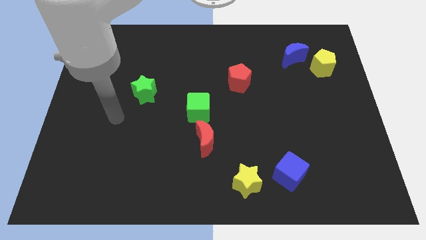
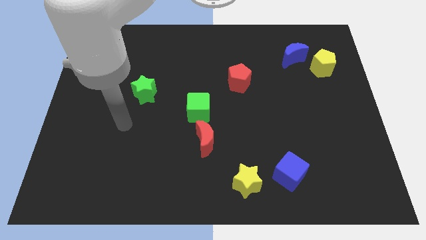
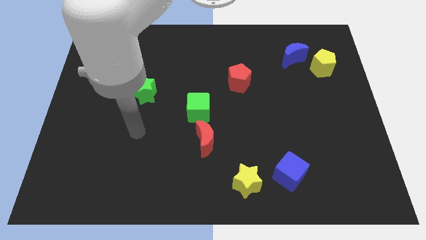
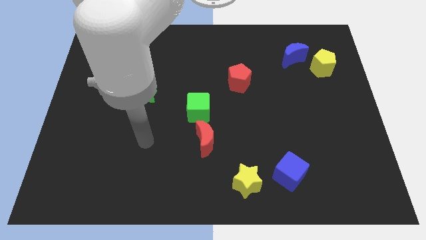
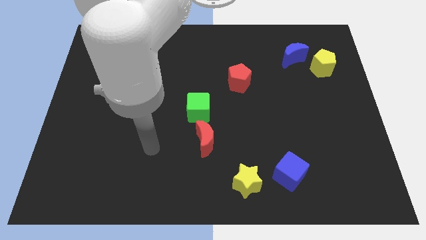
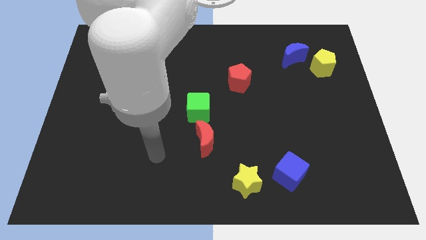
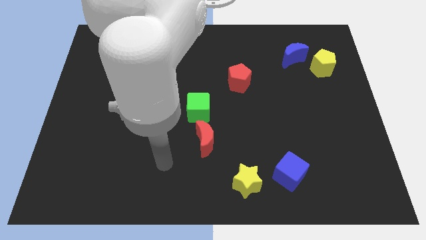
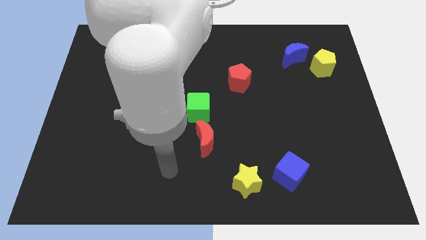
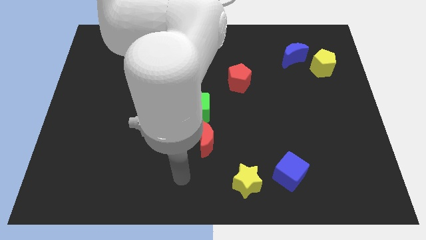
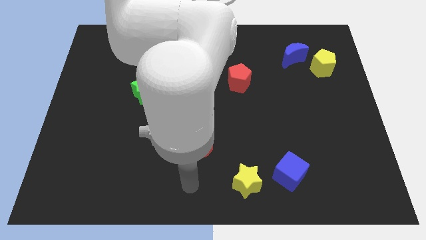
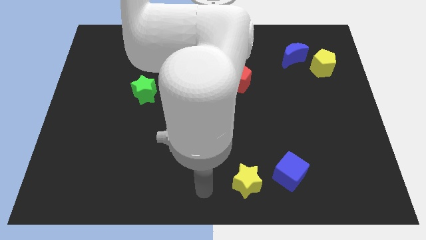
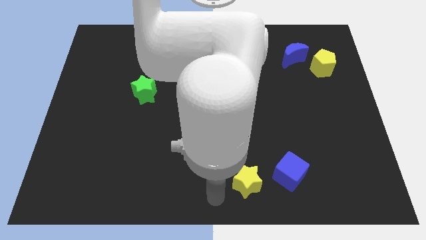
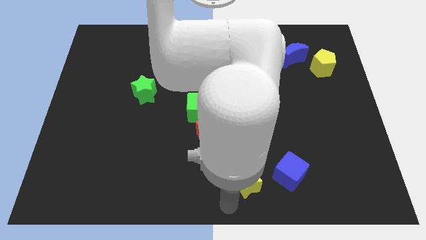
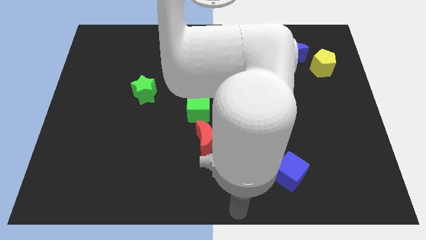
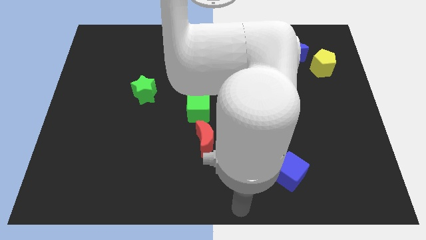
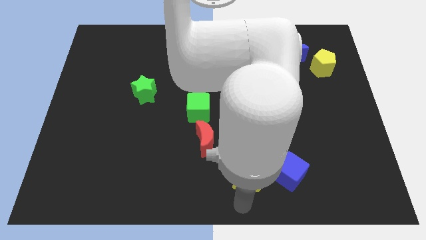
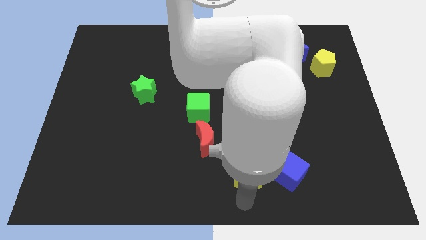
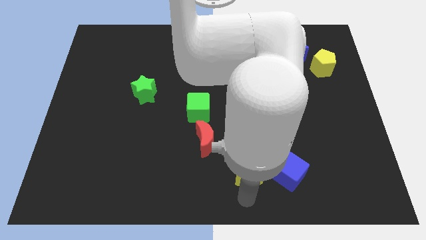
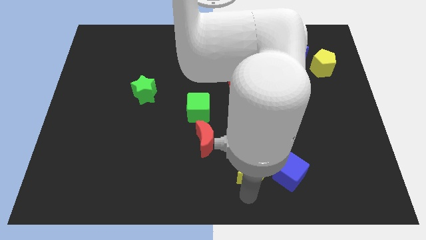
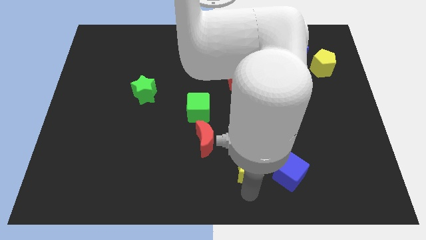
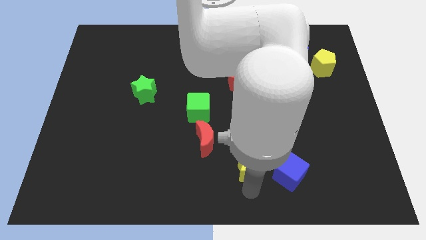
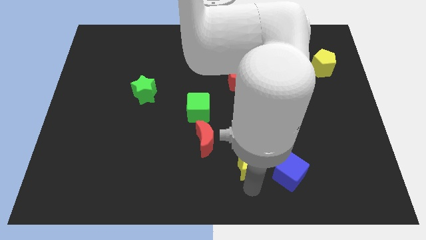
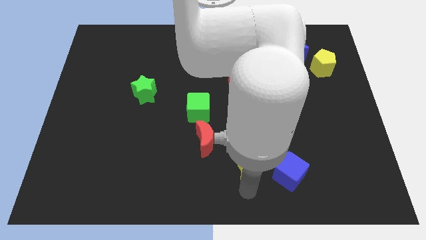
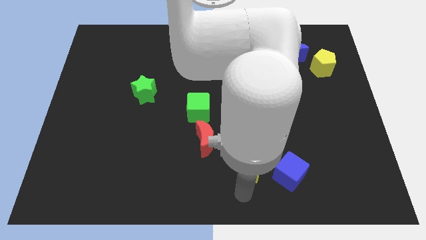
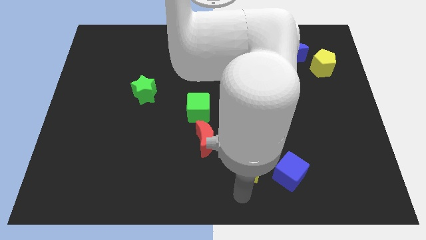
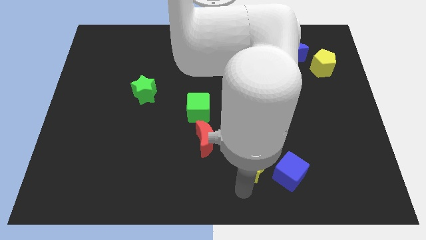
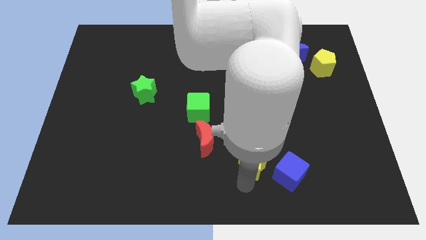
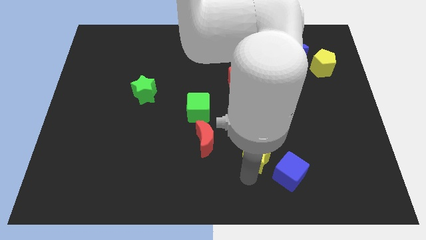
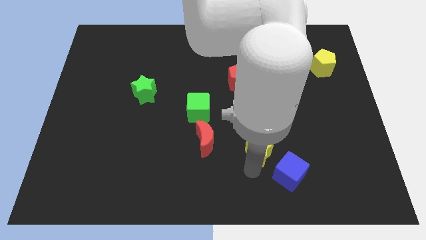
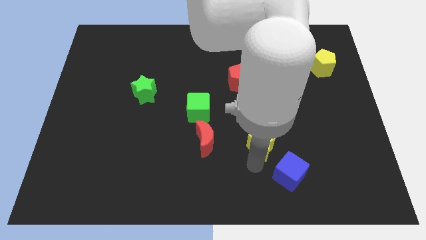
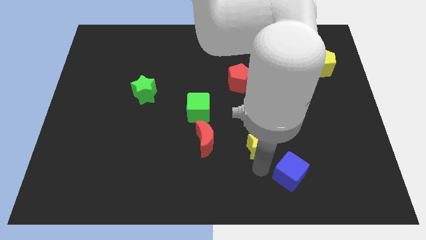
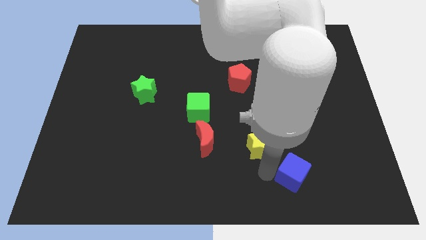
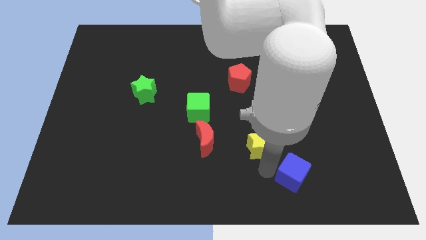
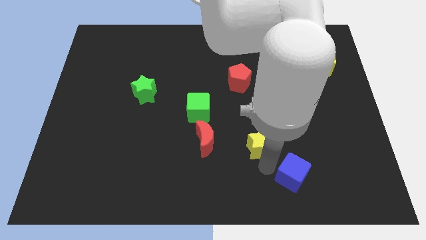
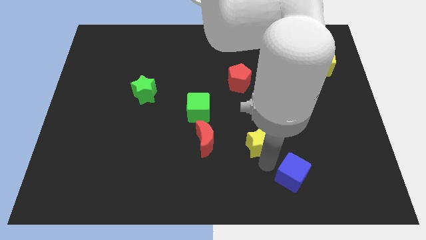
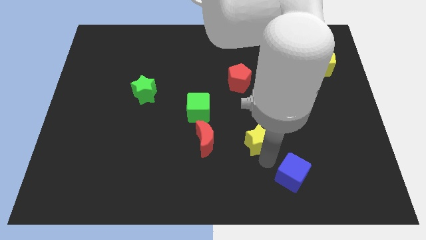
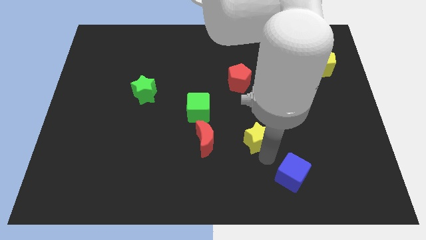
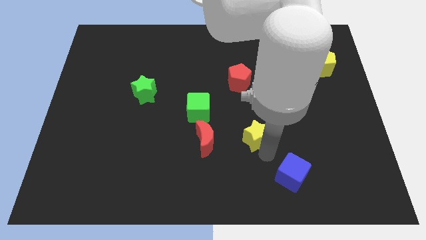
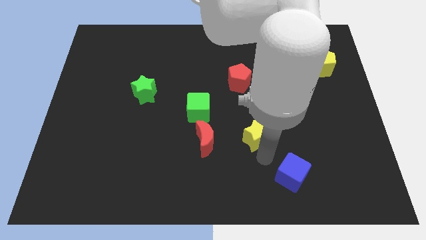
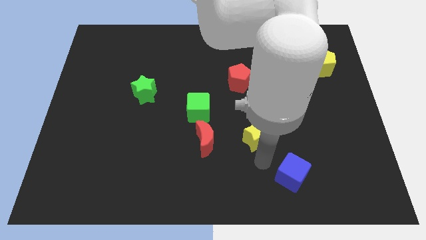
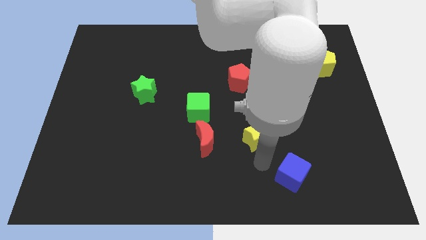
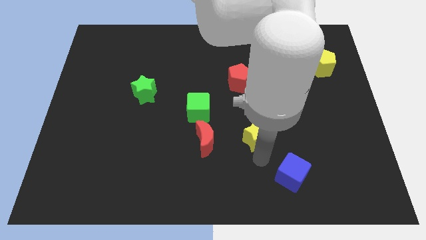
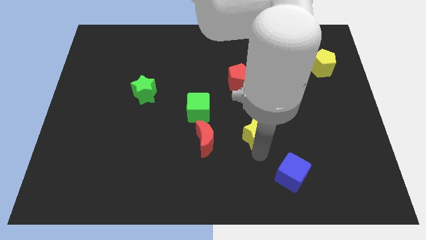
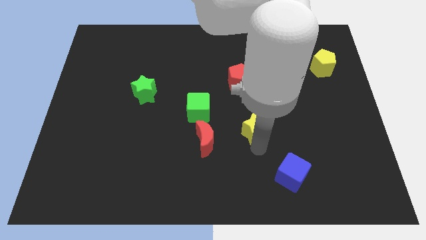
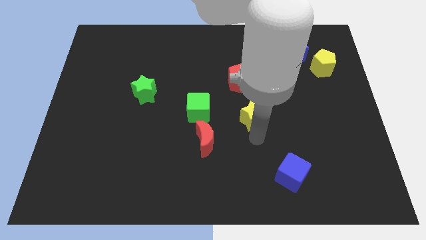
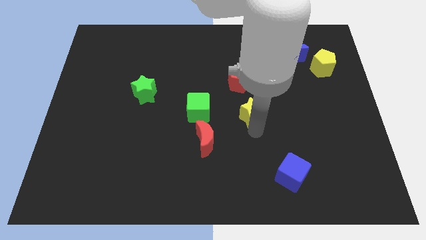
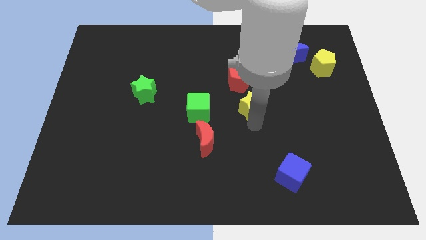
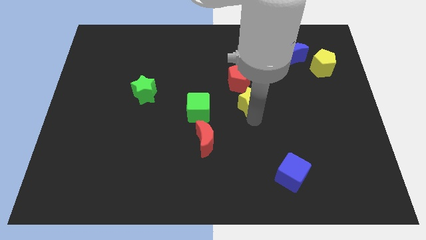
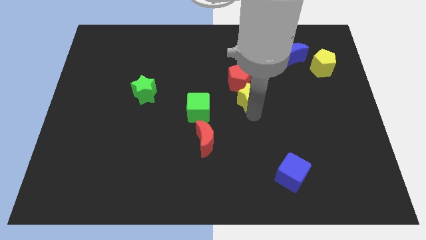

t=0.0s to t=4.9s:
put the yellow star towards the red pentagon

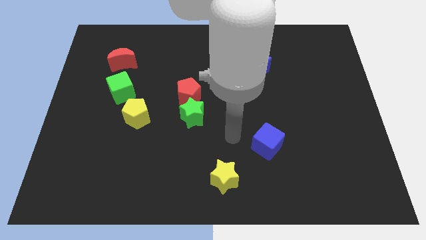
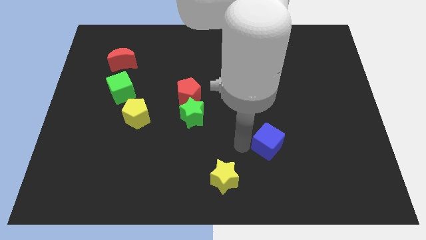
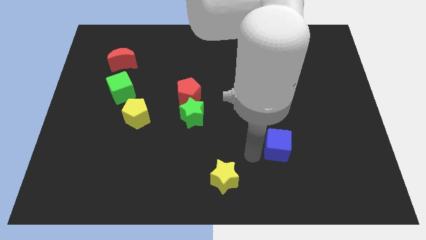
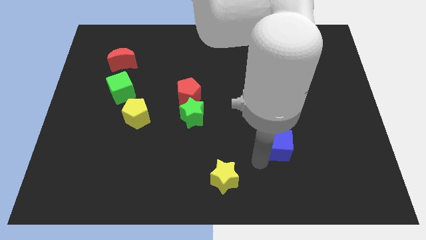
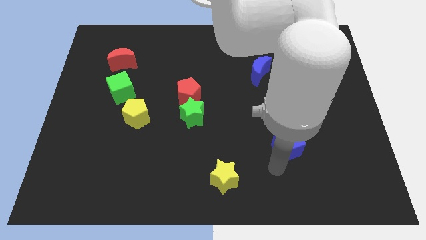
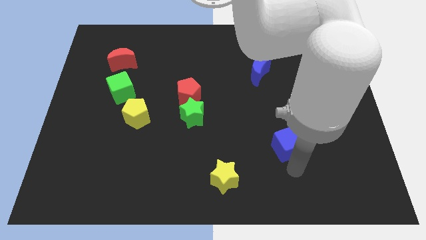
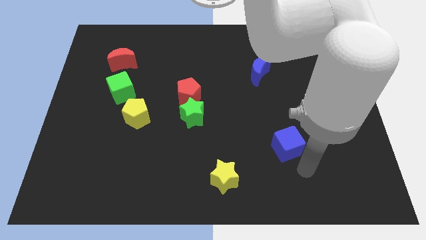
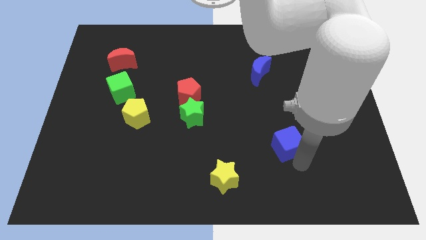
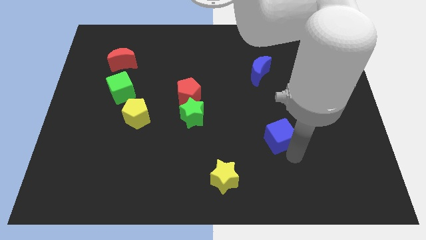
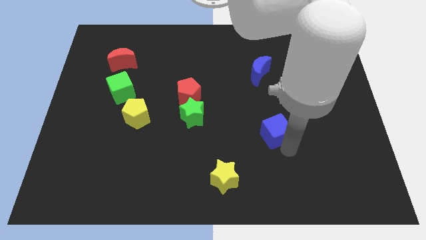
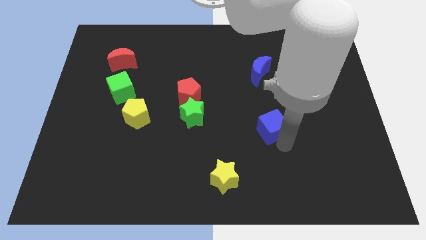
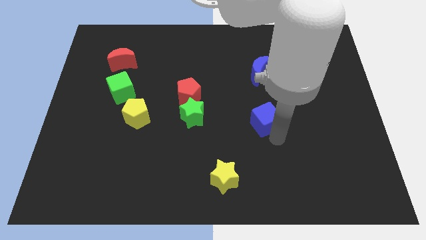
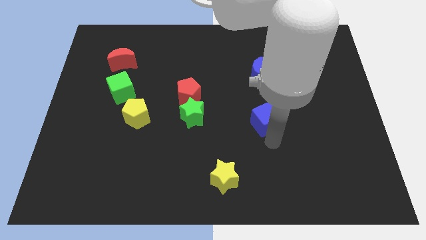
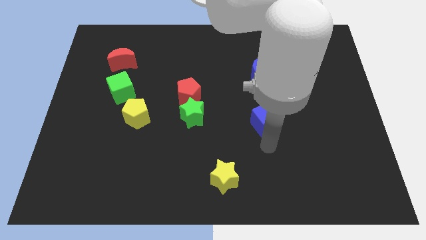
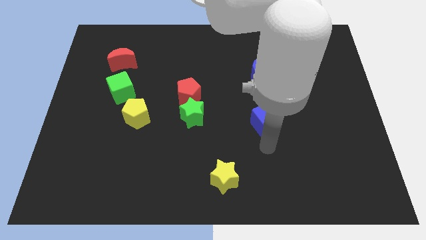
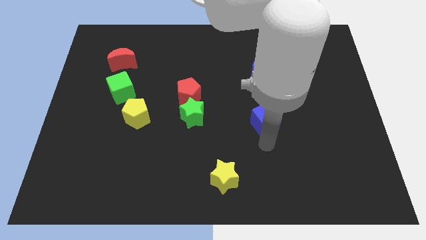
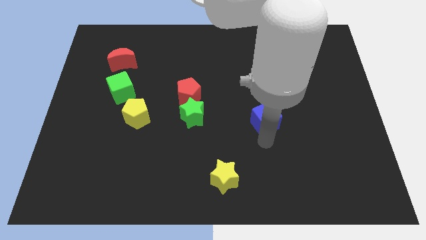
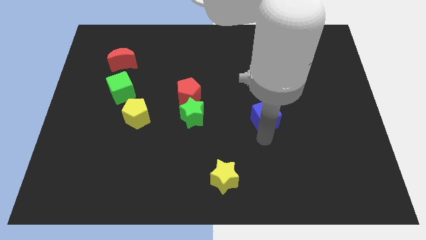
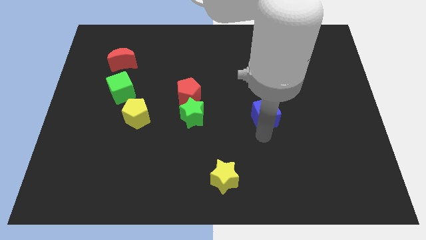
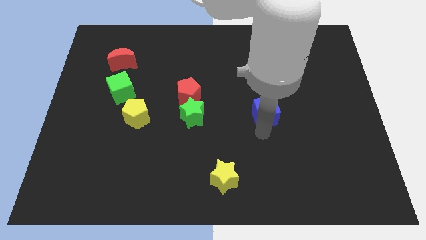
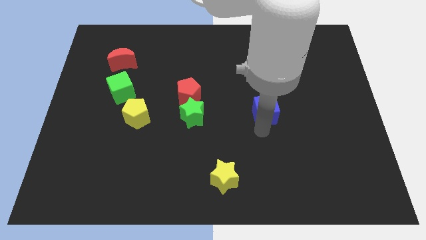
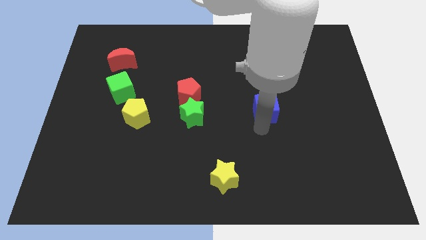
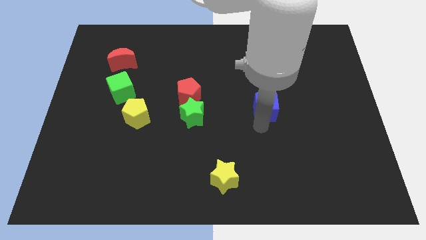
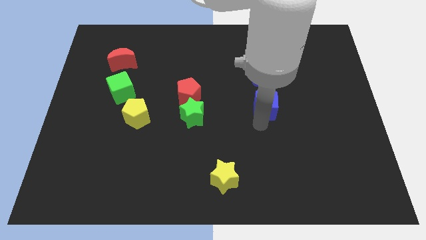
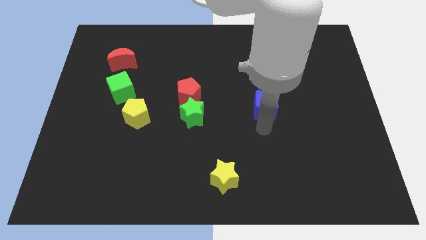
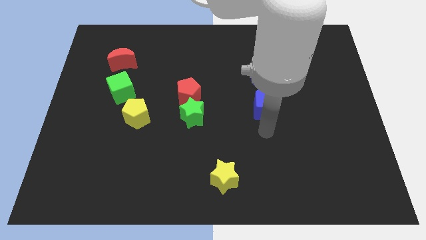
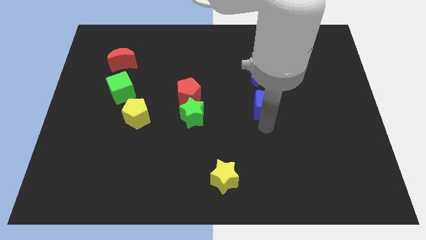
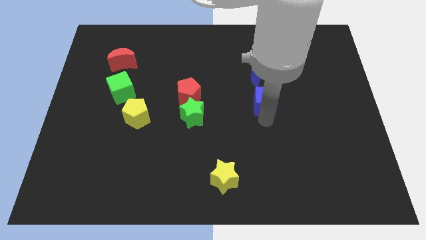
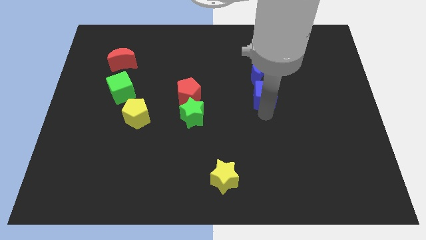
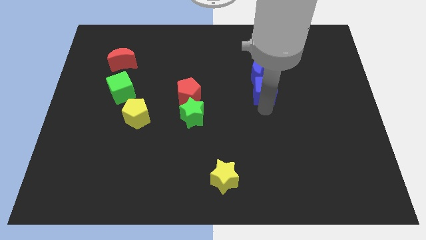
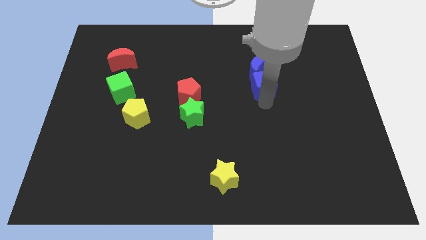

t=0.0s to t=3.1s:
put the blue cube to the blue moon

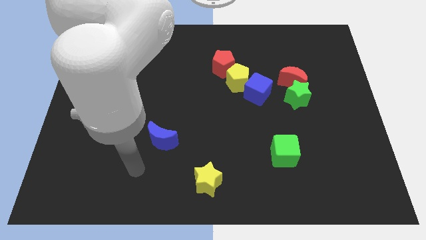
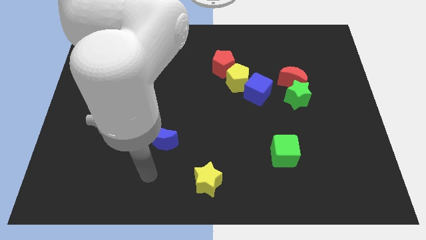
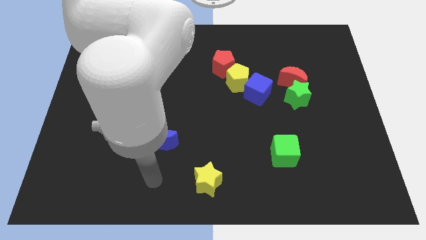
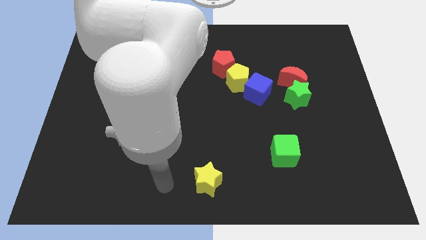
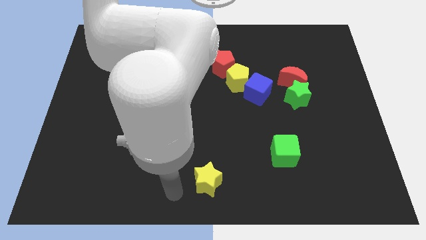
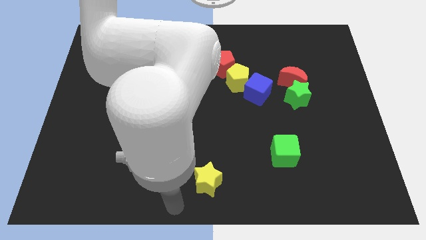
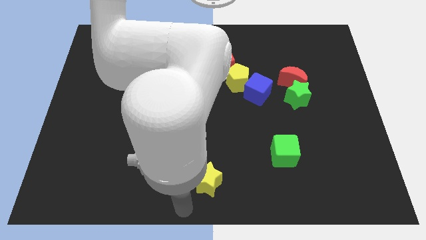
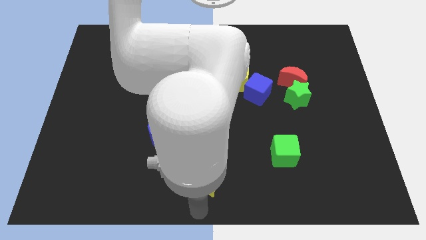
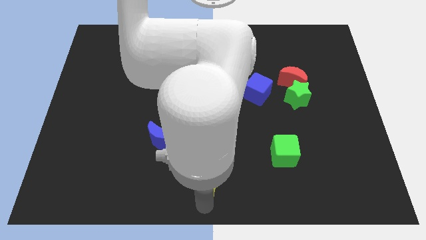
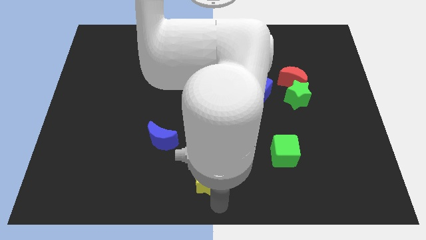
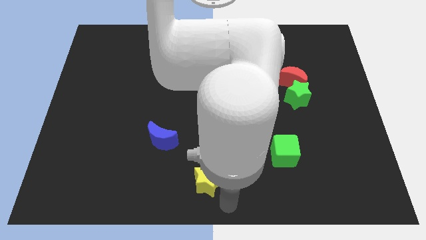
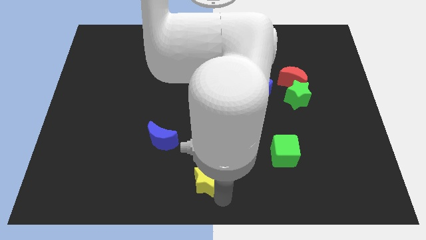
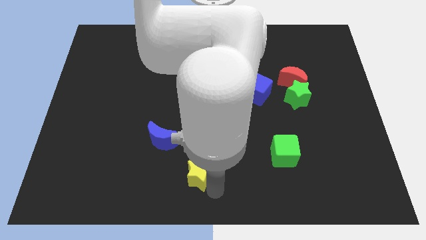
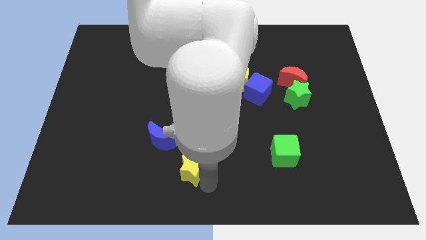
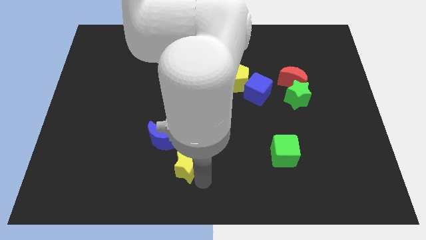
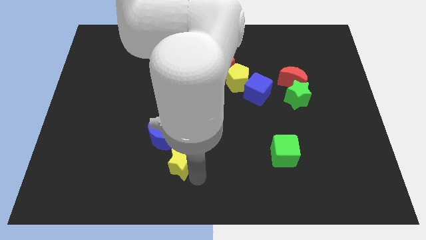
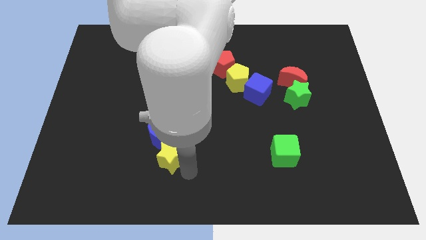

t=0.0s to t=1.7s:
push the yellow star to the blue moon
